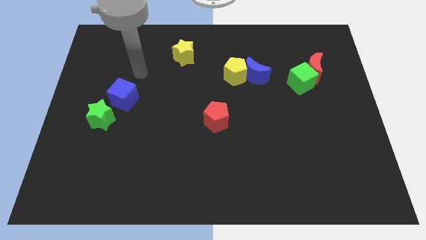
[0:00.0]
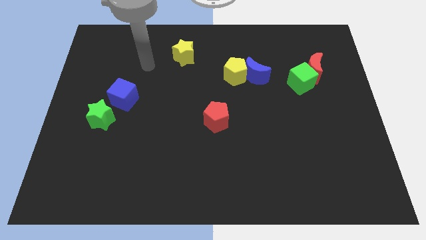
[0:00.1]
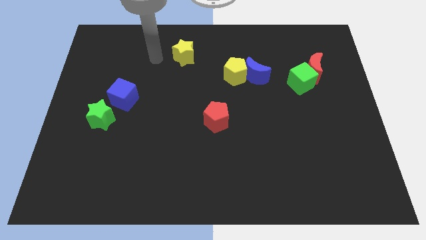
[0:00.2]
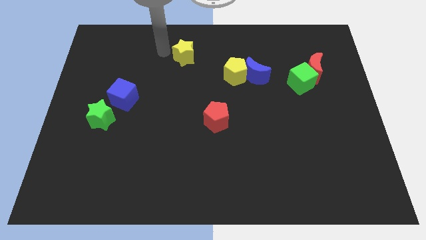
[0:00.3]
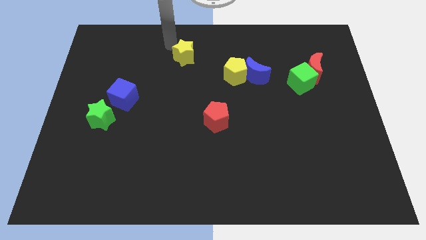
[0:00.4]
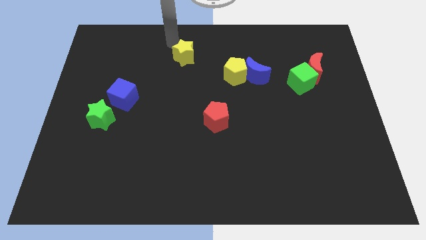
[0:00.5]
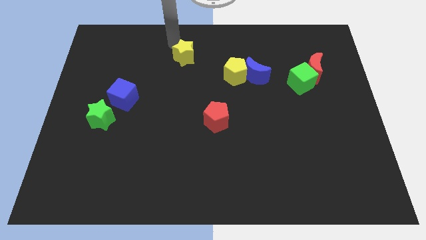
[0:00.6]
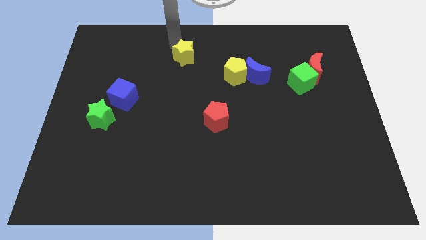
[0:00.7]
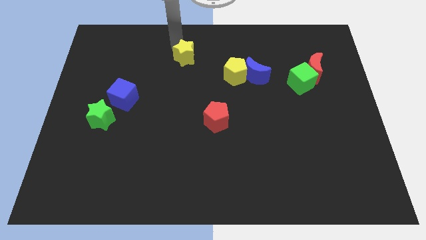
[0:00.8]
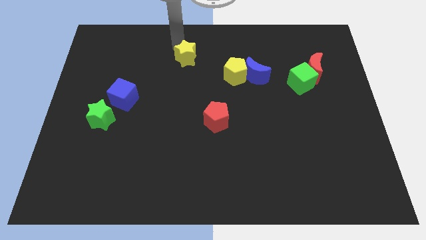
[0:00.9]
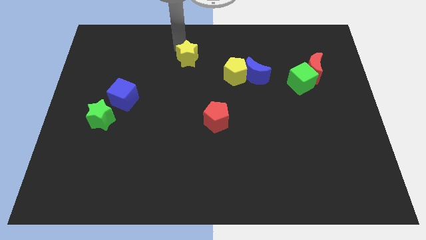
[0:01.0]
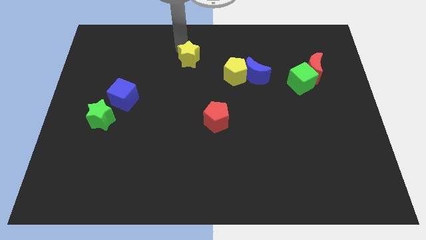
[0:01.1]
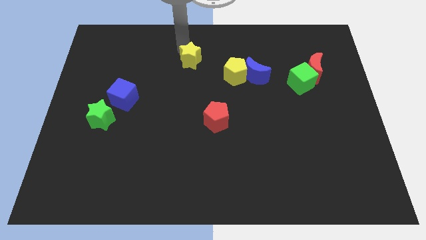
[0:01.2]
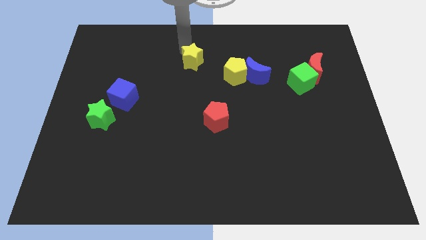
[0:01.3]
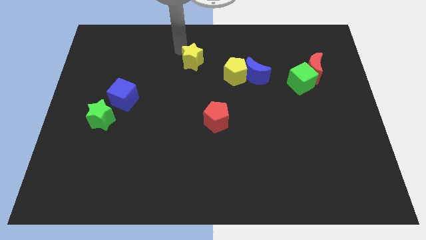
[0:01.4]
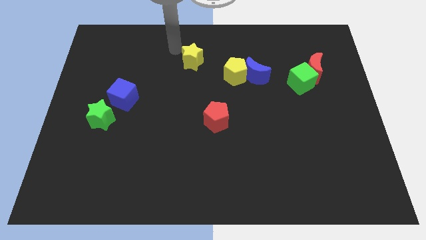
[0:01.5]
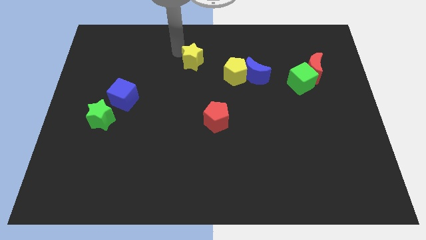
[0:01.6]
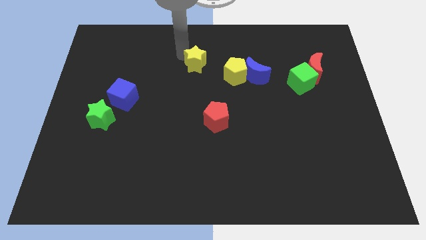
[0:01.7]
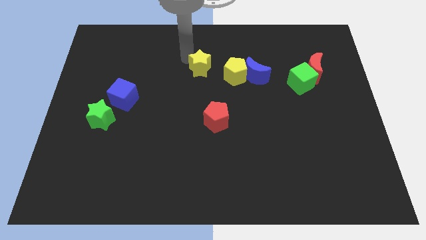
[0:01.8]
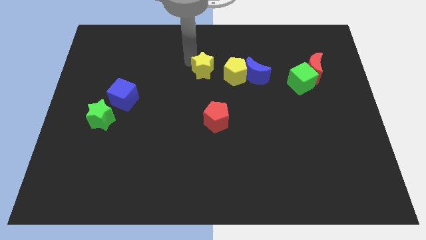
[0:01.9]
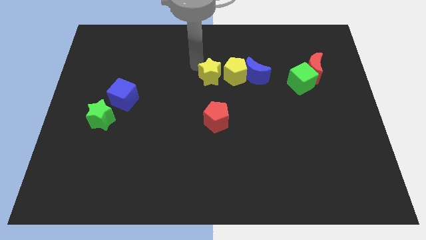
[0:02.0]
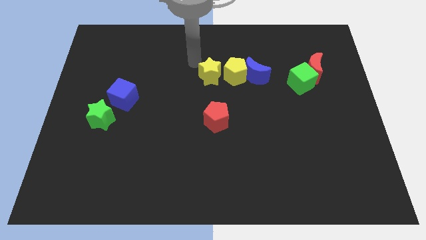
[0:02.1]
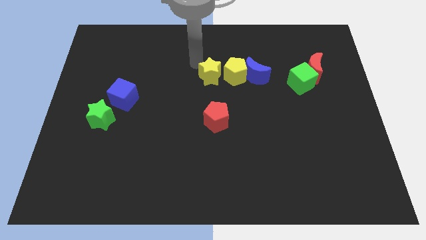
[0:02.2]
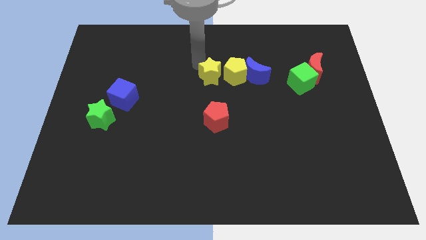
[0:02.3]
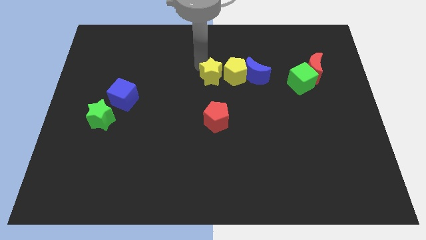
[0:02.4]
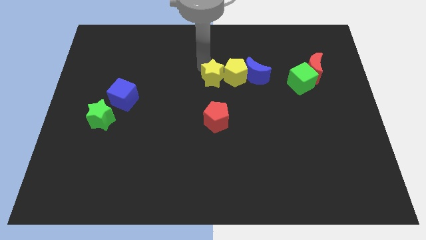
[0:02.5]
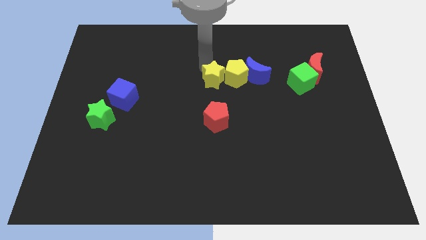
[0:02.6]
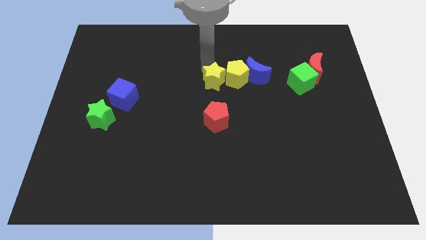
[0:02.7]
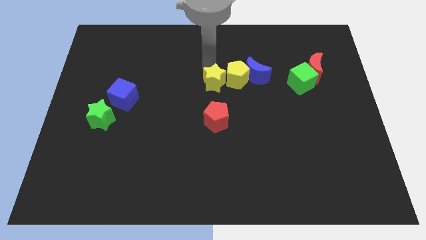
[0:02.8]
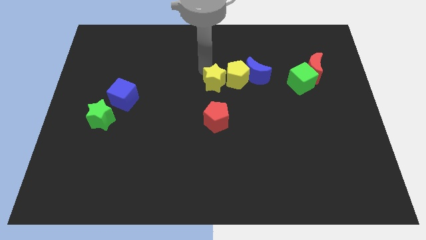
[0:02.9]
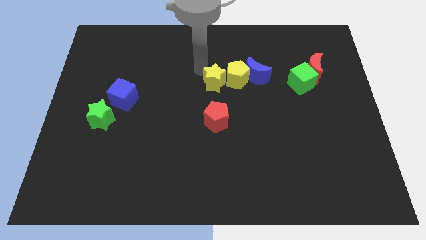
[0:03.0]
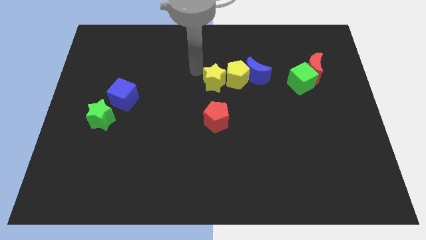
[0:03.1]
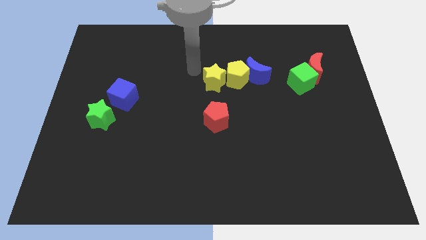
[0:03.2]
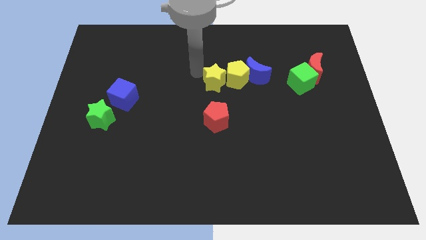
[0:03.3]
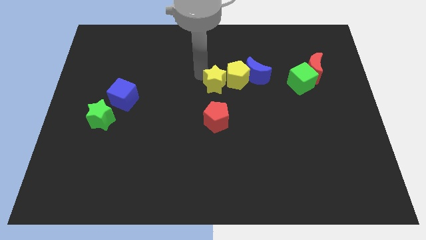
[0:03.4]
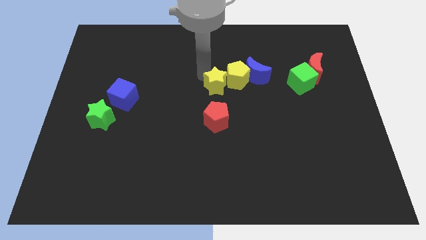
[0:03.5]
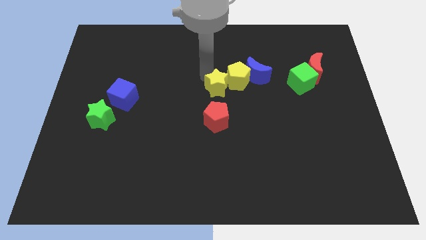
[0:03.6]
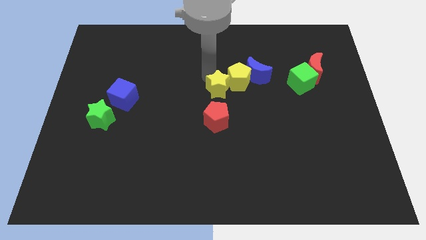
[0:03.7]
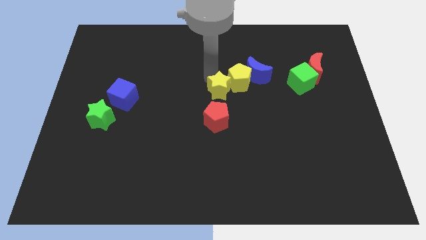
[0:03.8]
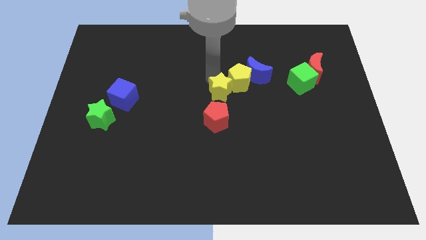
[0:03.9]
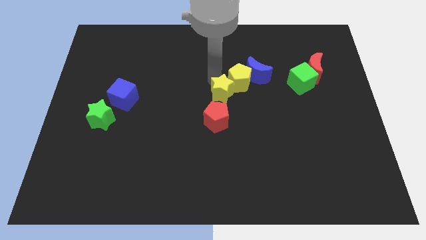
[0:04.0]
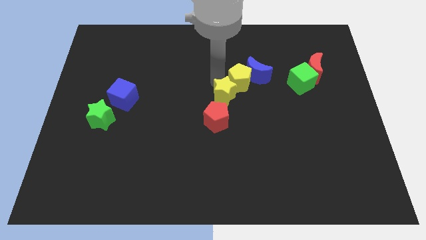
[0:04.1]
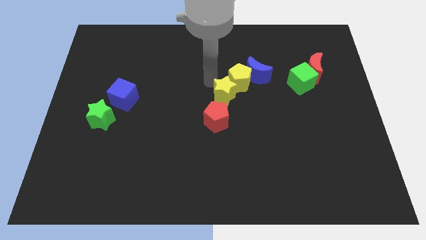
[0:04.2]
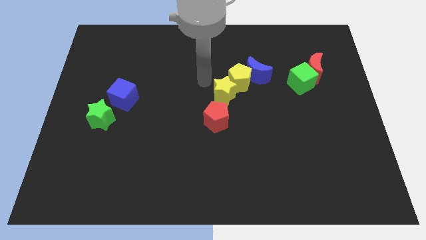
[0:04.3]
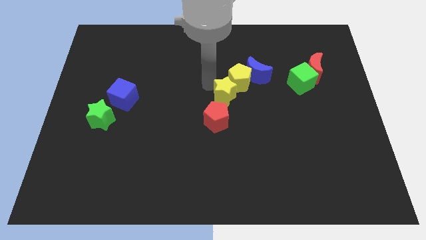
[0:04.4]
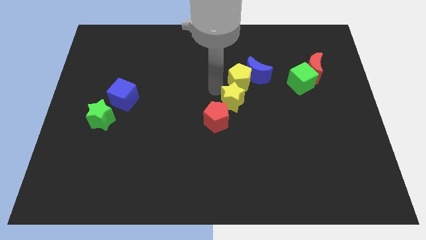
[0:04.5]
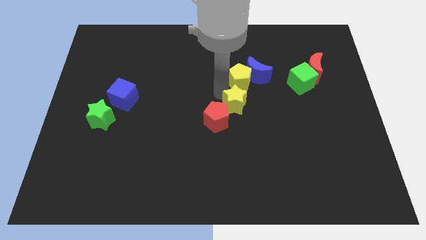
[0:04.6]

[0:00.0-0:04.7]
slide the yellow star downwards and to the right diagonally

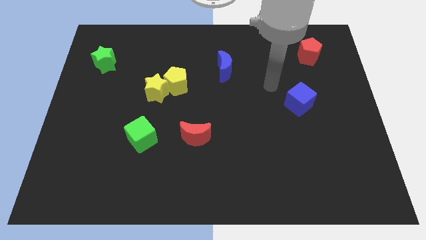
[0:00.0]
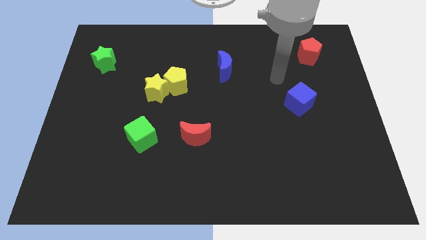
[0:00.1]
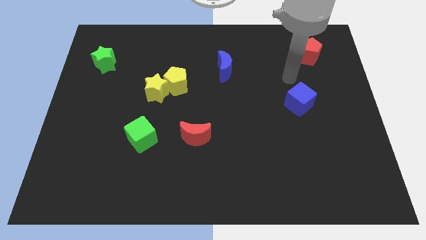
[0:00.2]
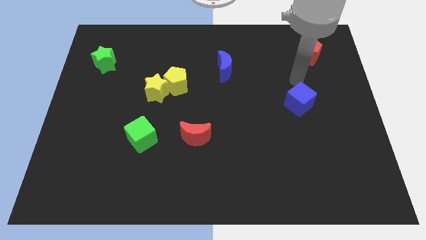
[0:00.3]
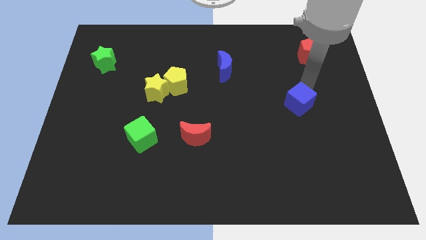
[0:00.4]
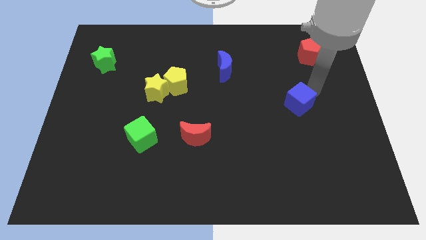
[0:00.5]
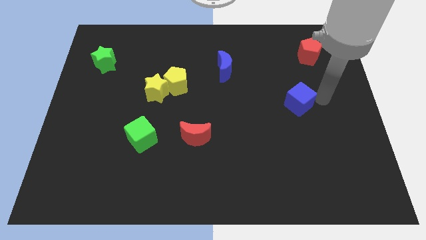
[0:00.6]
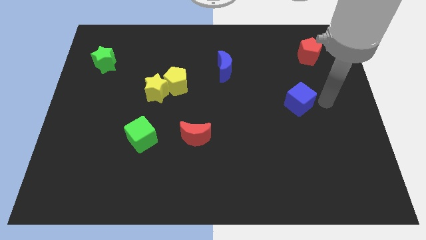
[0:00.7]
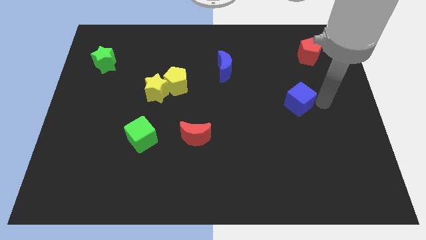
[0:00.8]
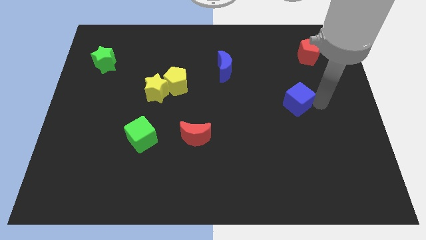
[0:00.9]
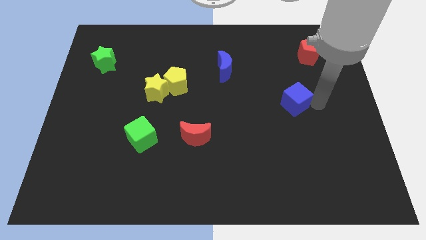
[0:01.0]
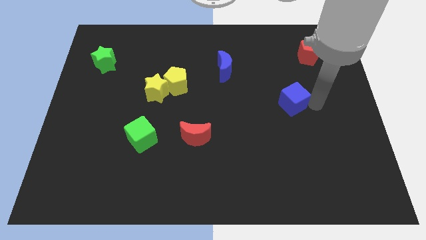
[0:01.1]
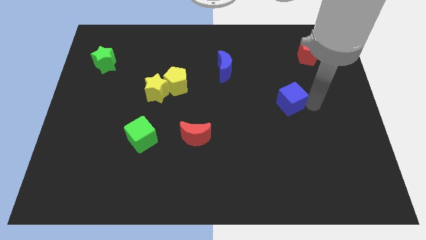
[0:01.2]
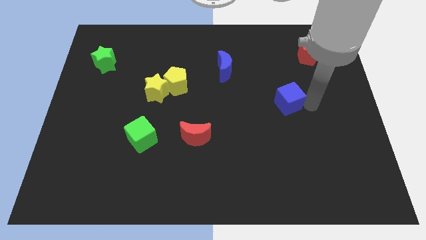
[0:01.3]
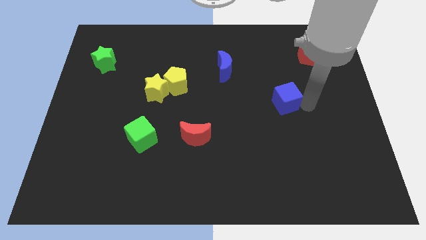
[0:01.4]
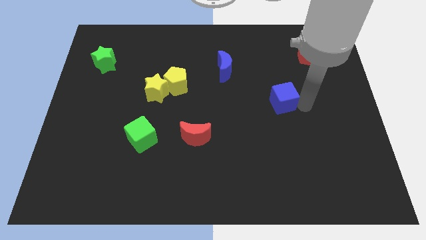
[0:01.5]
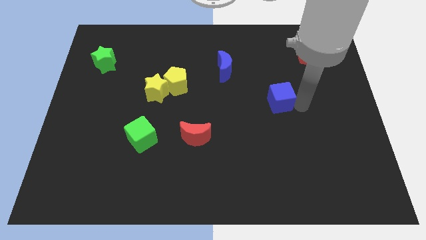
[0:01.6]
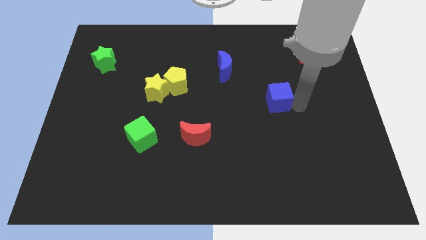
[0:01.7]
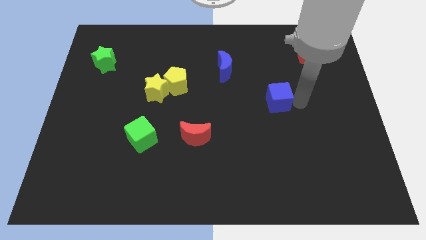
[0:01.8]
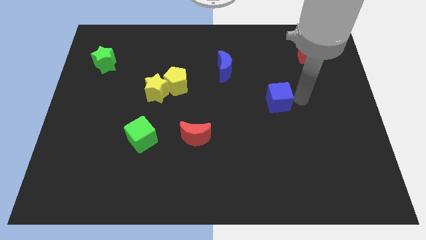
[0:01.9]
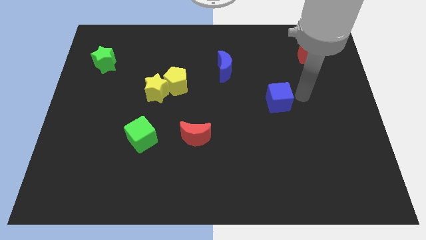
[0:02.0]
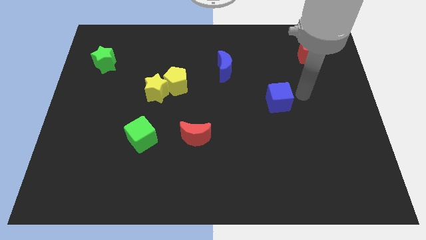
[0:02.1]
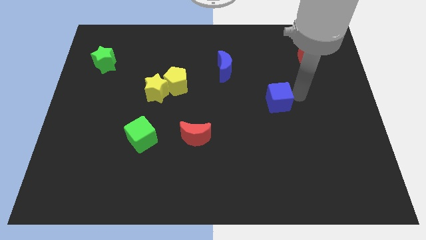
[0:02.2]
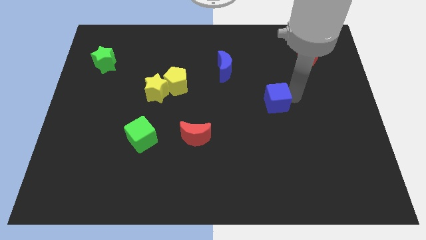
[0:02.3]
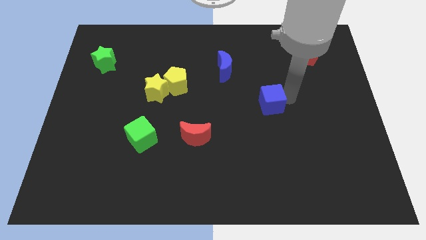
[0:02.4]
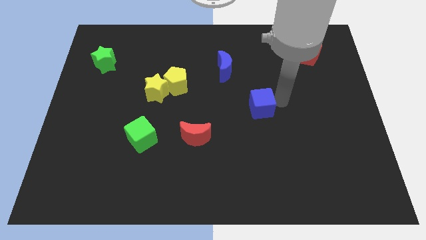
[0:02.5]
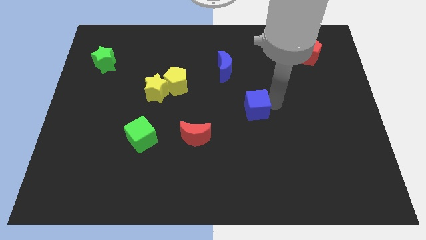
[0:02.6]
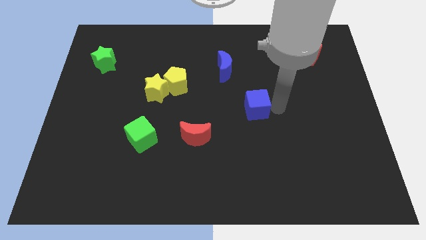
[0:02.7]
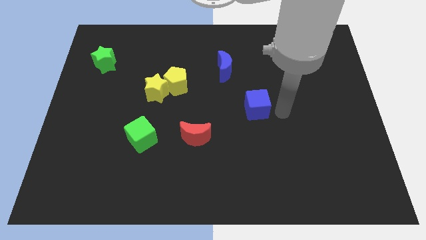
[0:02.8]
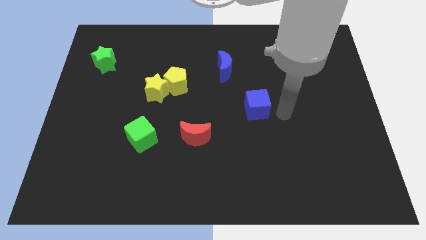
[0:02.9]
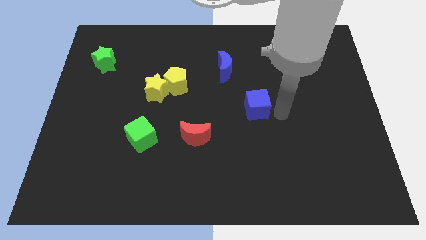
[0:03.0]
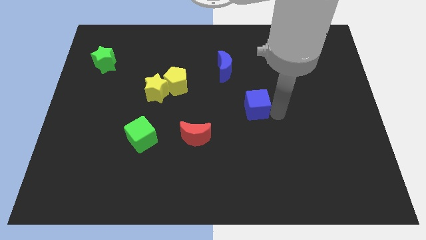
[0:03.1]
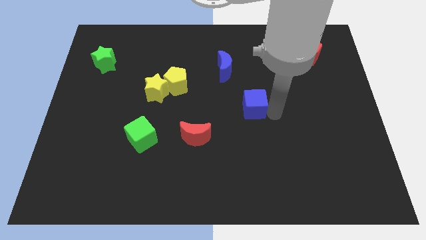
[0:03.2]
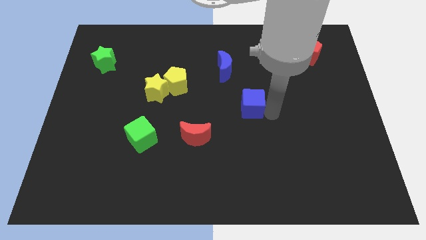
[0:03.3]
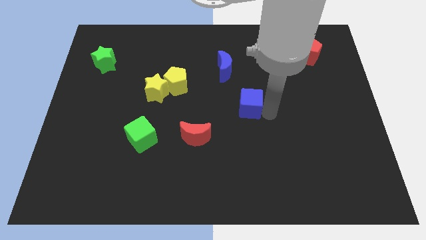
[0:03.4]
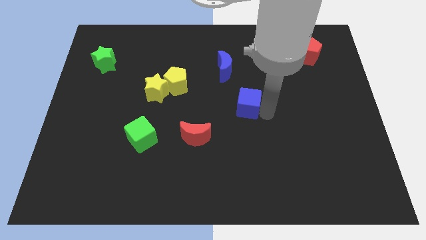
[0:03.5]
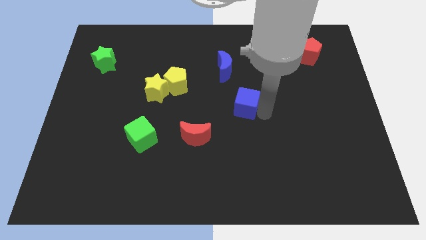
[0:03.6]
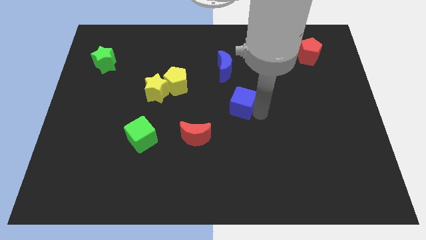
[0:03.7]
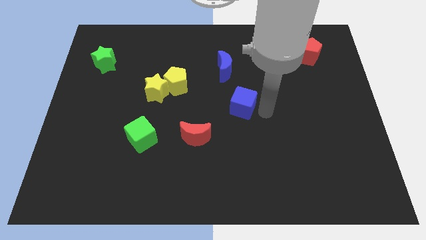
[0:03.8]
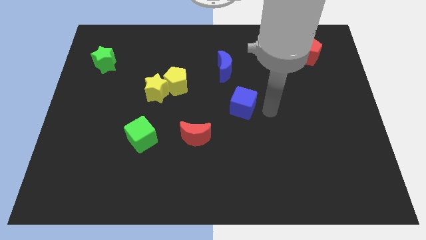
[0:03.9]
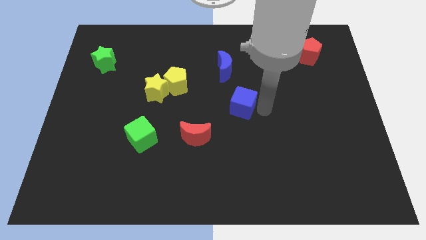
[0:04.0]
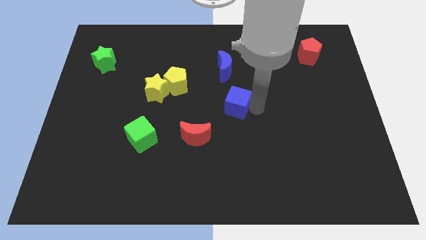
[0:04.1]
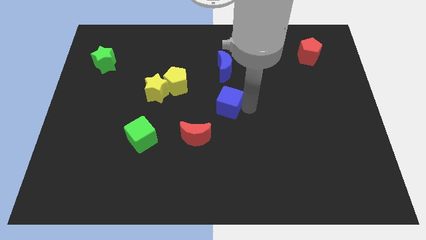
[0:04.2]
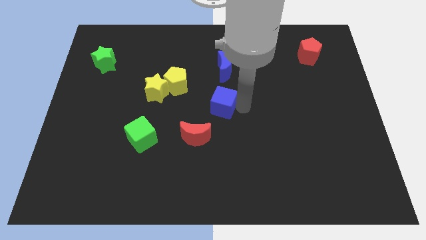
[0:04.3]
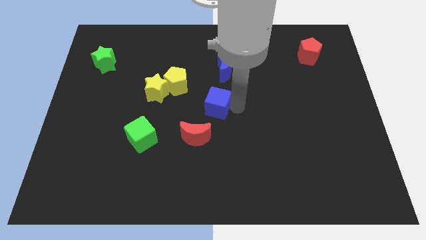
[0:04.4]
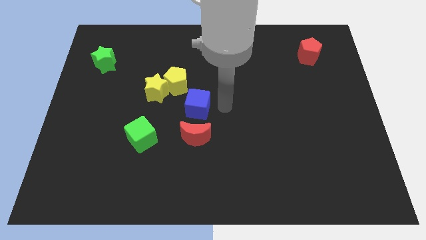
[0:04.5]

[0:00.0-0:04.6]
move the blue cube to the left
